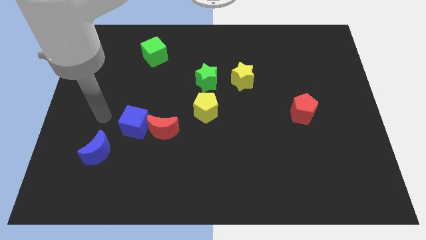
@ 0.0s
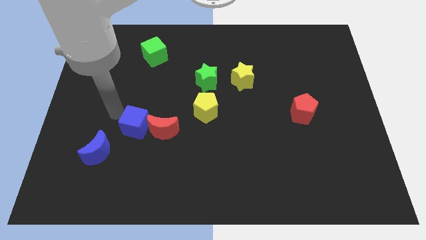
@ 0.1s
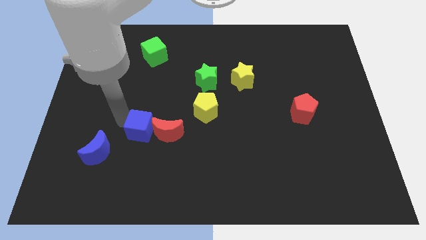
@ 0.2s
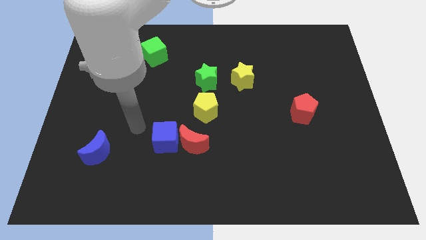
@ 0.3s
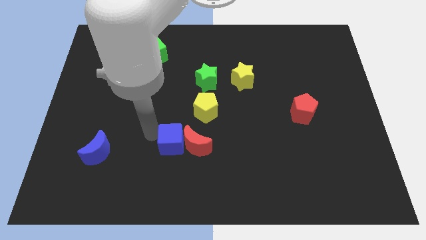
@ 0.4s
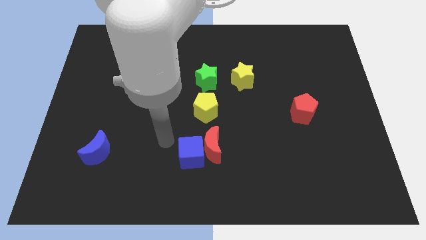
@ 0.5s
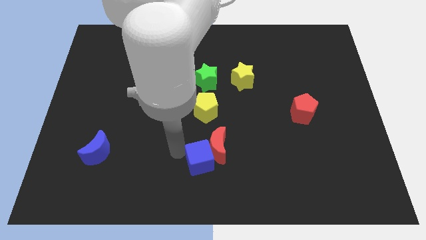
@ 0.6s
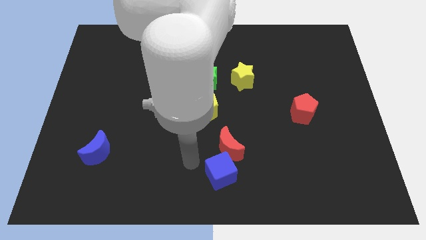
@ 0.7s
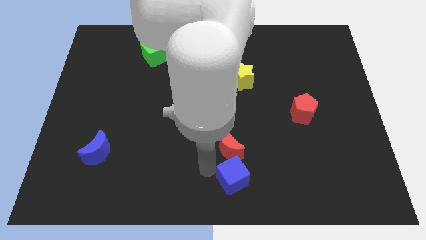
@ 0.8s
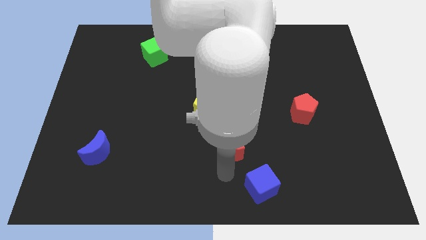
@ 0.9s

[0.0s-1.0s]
move the red moon away from the blue cube

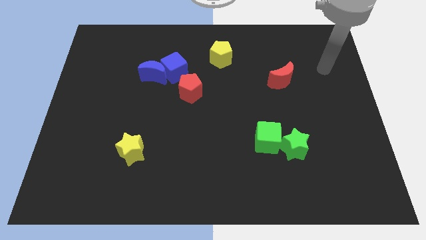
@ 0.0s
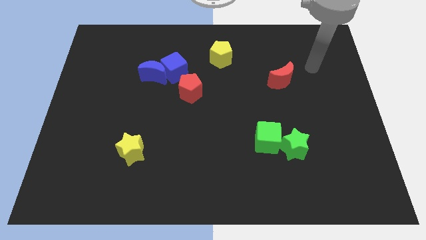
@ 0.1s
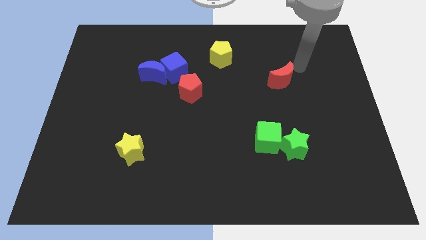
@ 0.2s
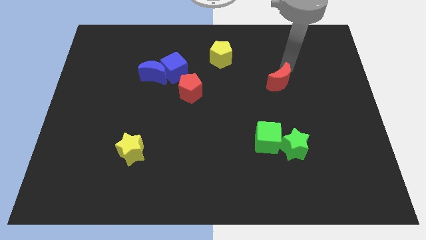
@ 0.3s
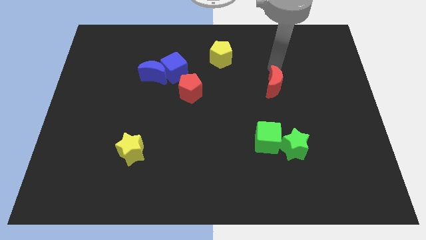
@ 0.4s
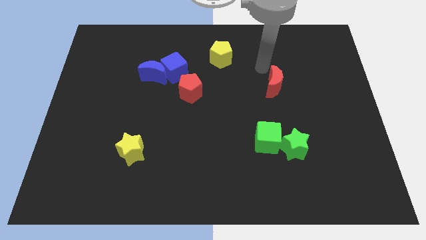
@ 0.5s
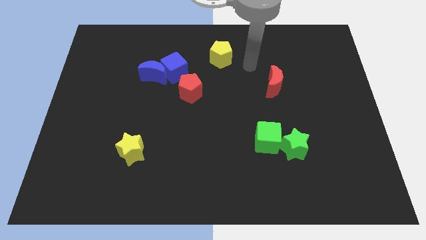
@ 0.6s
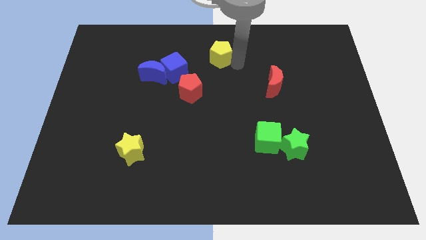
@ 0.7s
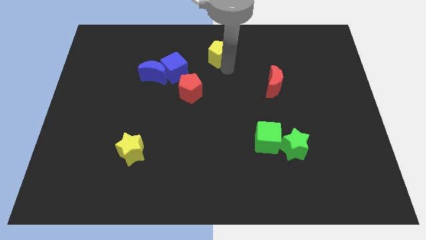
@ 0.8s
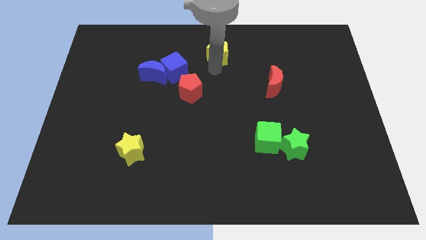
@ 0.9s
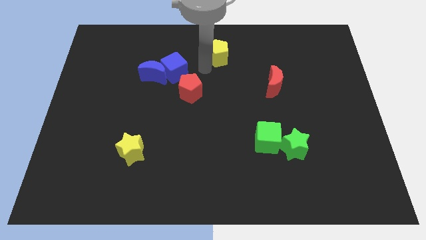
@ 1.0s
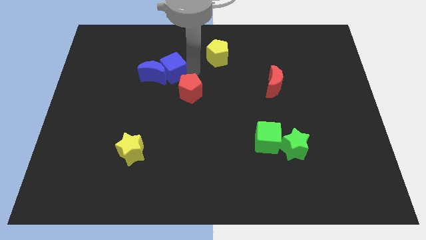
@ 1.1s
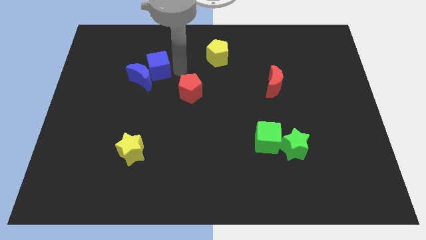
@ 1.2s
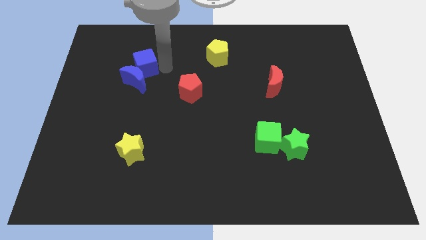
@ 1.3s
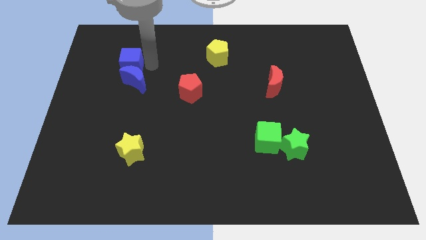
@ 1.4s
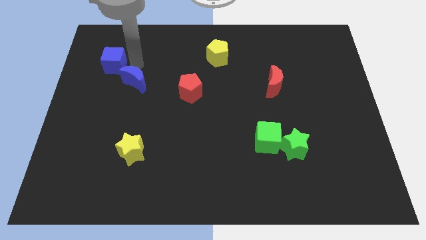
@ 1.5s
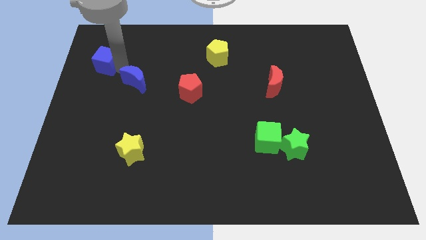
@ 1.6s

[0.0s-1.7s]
move the blue moon away from the blue cube

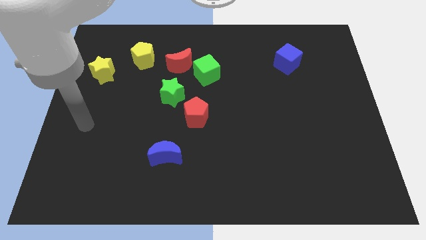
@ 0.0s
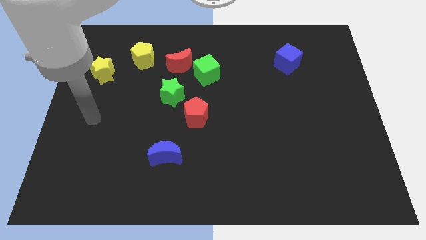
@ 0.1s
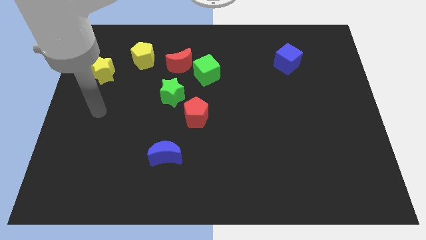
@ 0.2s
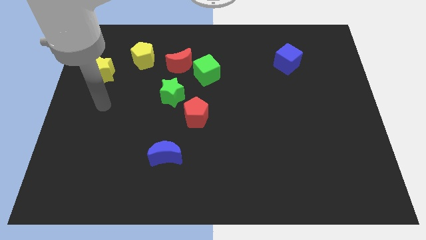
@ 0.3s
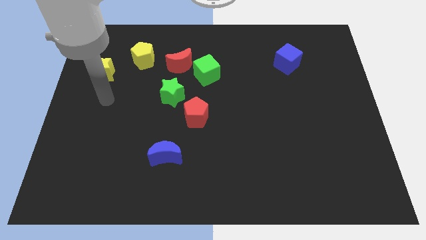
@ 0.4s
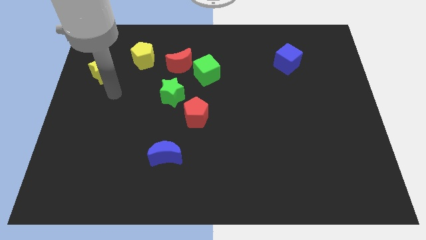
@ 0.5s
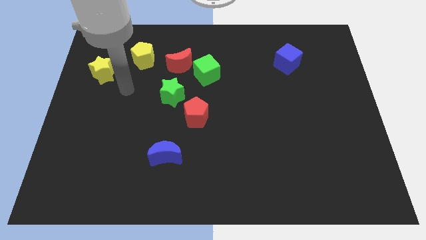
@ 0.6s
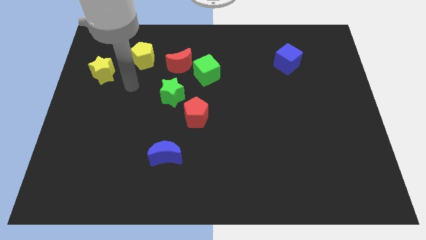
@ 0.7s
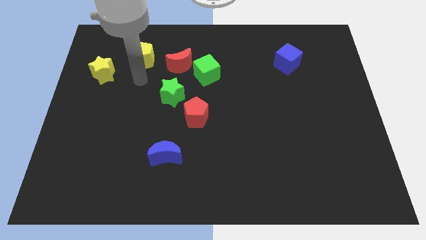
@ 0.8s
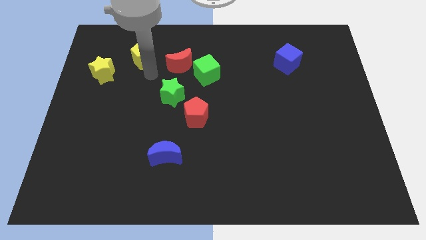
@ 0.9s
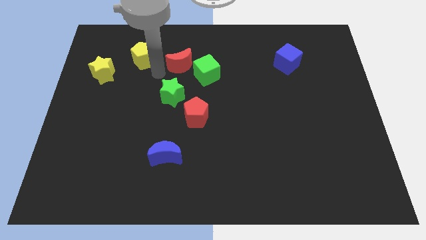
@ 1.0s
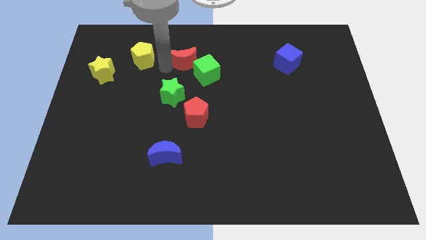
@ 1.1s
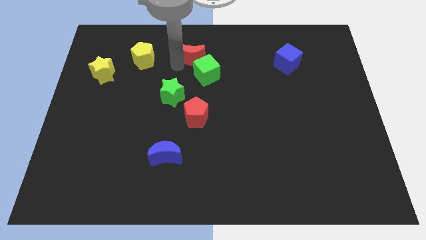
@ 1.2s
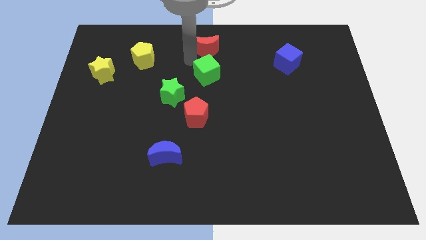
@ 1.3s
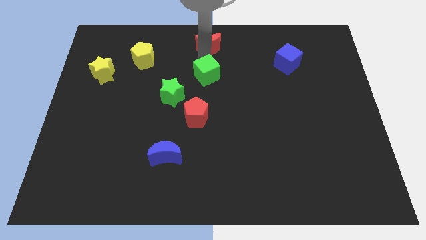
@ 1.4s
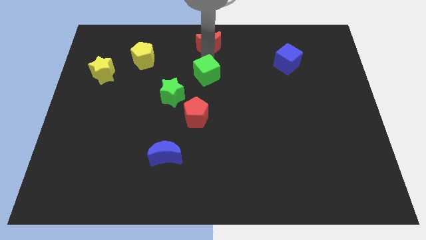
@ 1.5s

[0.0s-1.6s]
move the green cube away from the red moon

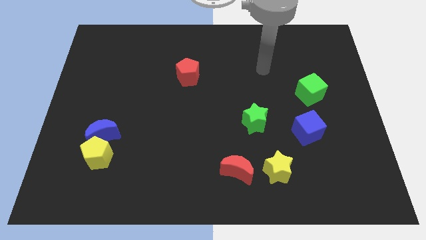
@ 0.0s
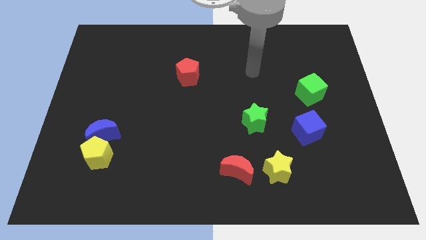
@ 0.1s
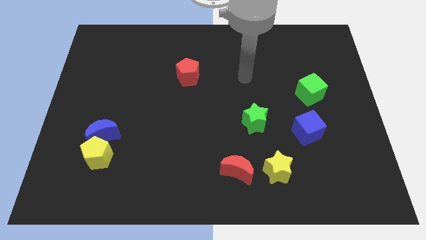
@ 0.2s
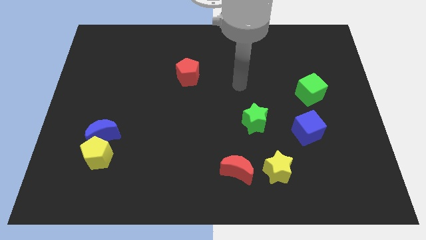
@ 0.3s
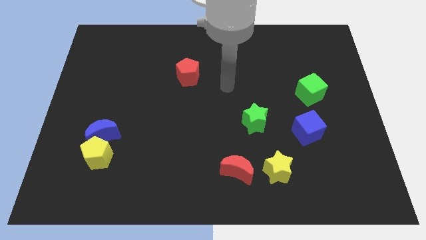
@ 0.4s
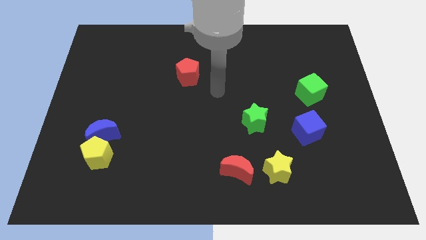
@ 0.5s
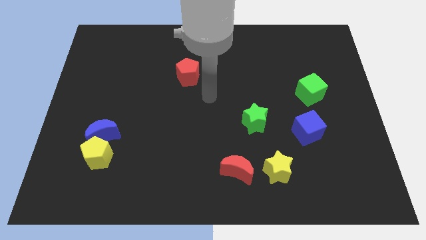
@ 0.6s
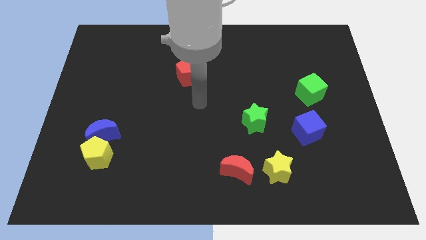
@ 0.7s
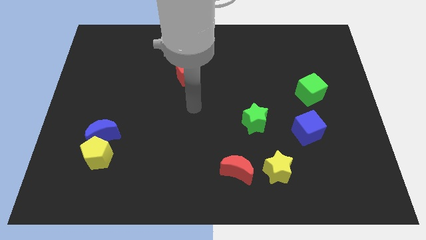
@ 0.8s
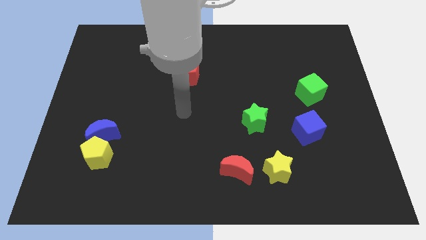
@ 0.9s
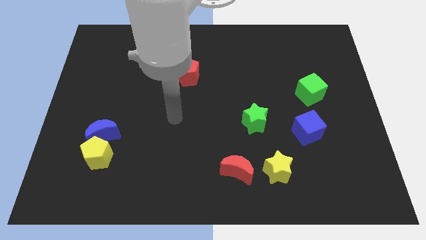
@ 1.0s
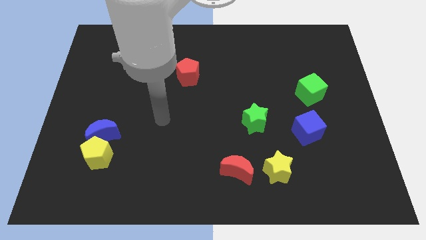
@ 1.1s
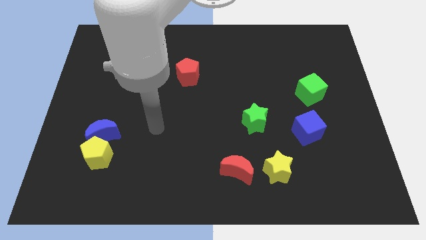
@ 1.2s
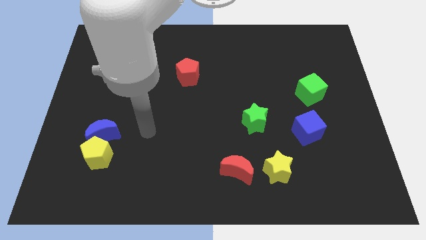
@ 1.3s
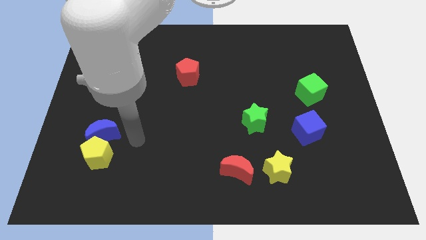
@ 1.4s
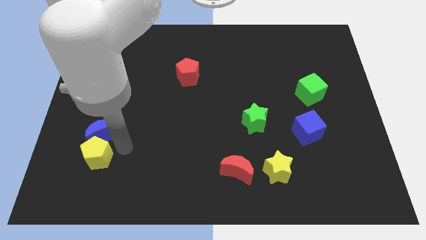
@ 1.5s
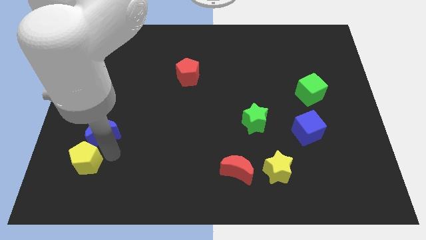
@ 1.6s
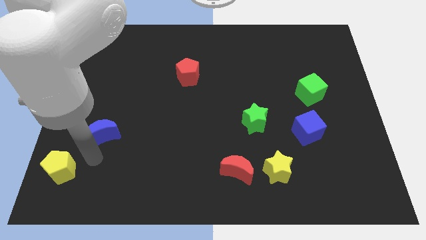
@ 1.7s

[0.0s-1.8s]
pull the blue moon apart from the yellow pentagon

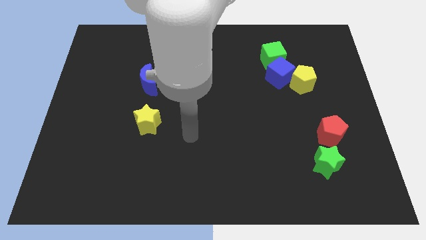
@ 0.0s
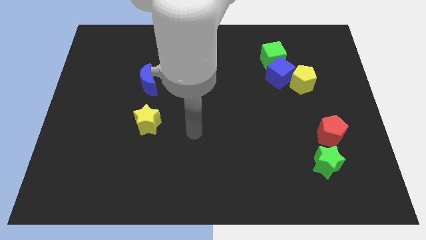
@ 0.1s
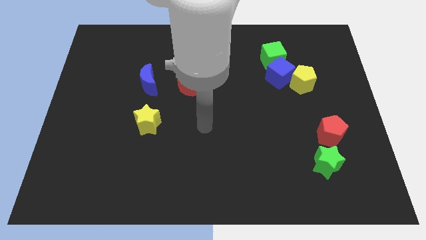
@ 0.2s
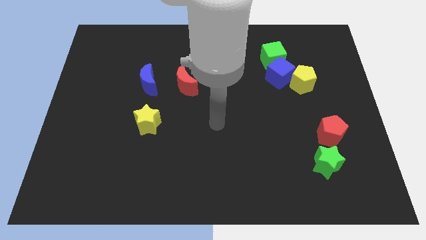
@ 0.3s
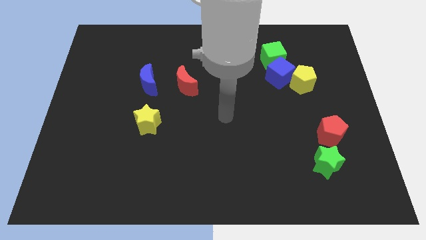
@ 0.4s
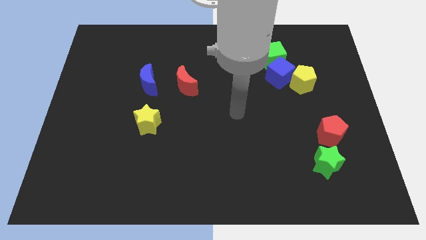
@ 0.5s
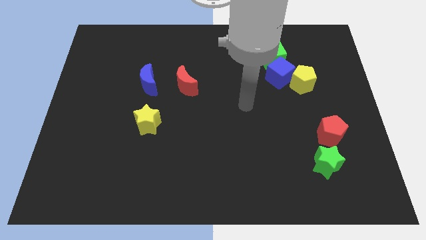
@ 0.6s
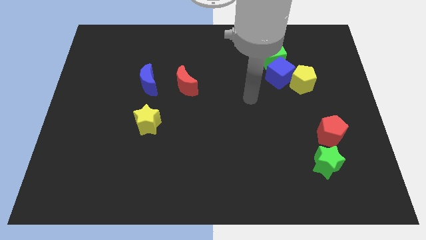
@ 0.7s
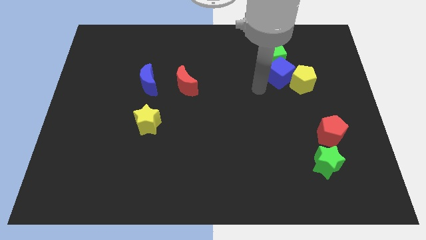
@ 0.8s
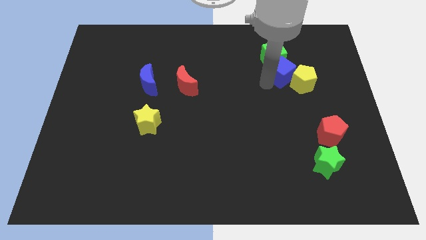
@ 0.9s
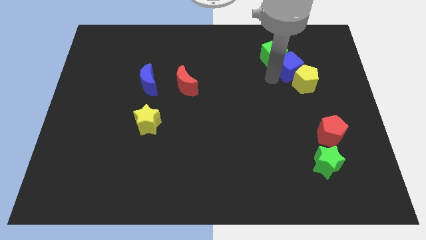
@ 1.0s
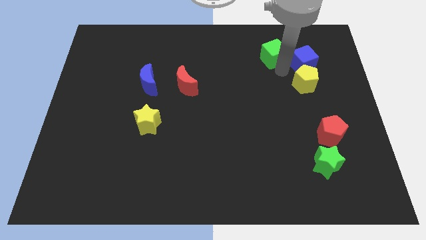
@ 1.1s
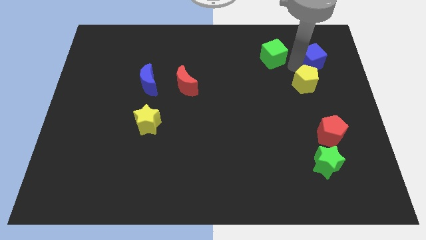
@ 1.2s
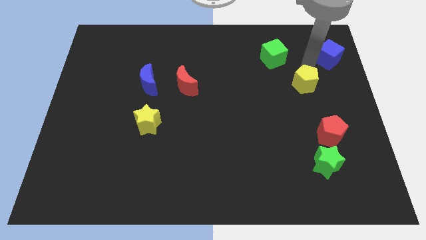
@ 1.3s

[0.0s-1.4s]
move the yellow pentagon away from the blue cube

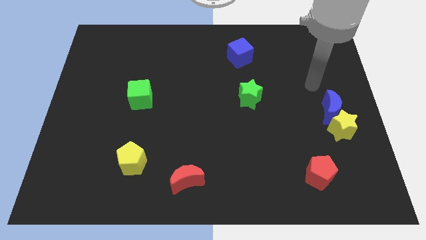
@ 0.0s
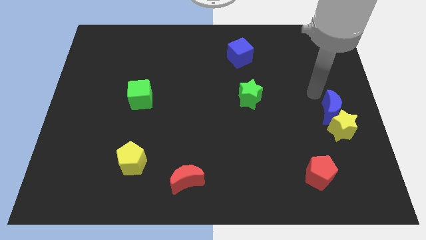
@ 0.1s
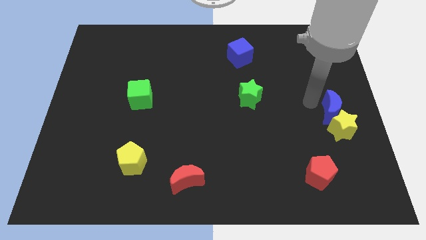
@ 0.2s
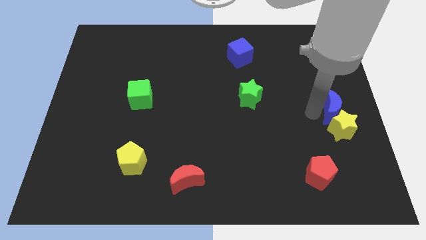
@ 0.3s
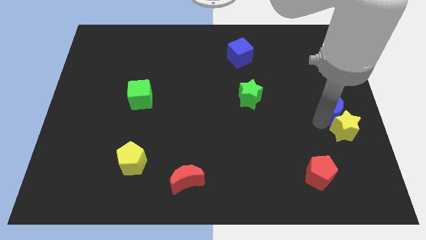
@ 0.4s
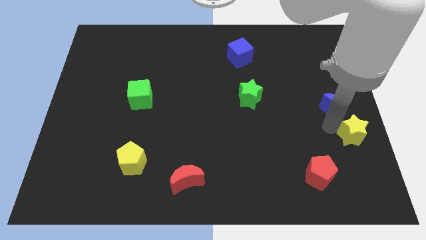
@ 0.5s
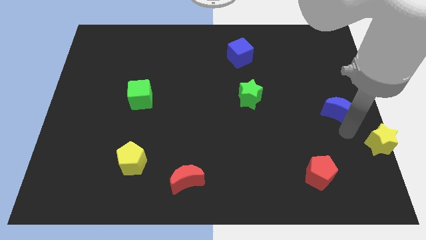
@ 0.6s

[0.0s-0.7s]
pull the blue moon apart from the yellow star

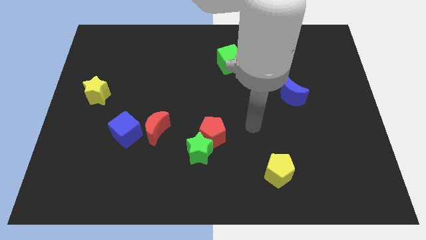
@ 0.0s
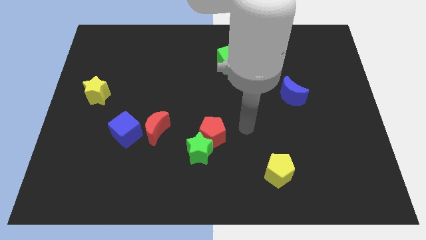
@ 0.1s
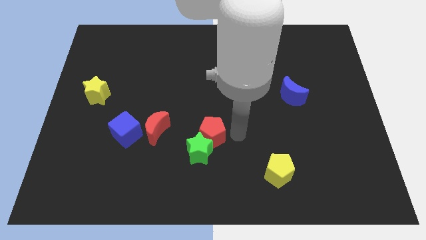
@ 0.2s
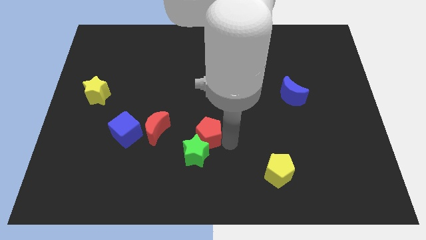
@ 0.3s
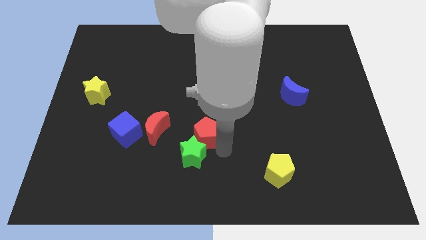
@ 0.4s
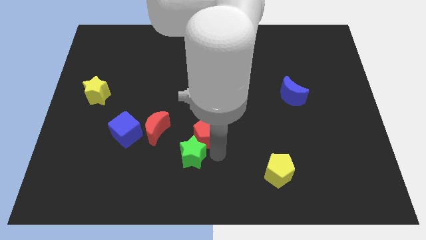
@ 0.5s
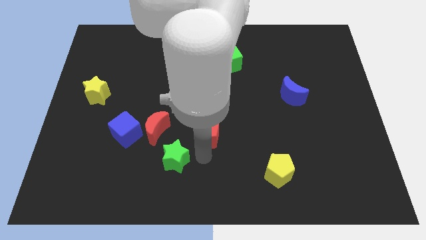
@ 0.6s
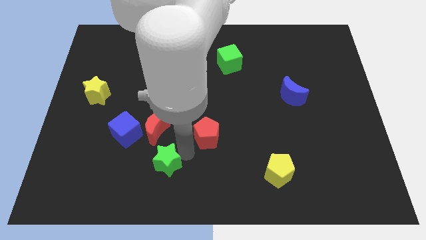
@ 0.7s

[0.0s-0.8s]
move the red pentagon away from the green star

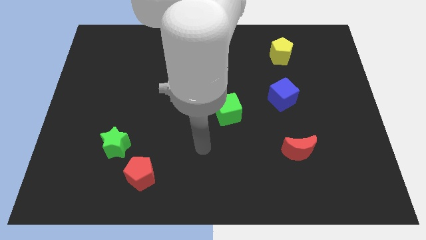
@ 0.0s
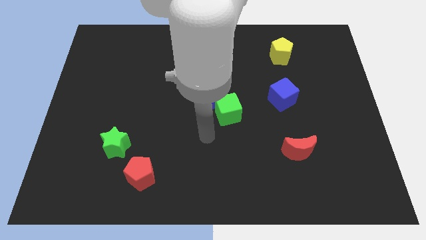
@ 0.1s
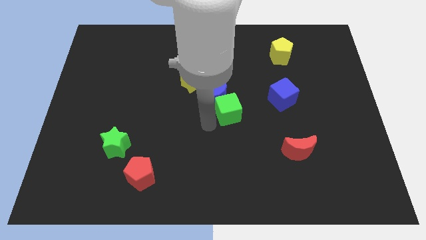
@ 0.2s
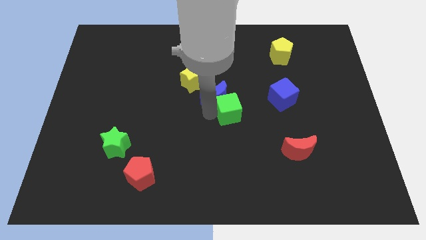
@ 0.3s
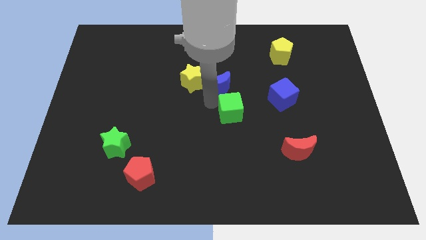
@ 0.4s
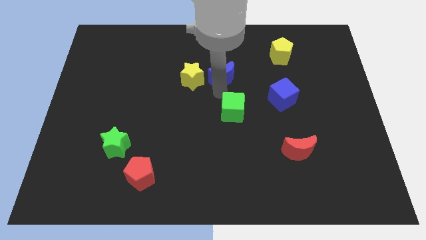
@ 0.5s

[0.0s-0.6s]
move the green cube away from the blue moon
